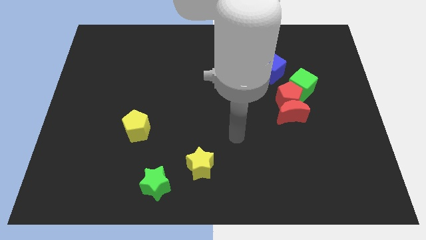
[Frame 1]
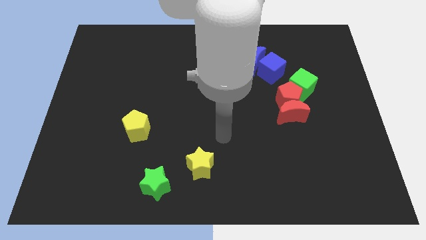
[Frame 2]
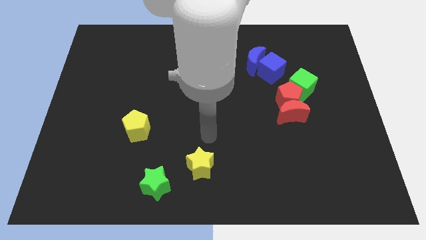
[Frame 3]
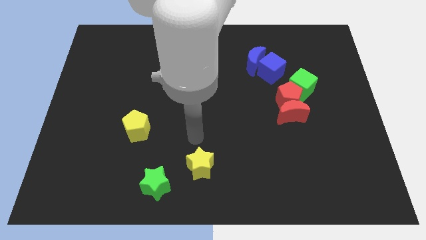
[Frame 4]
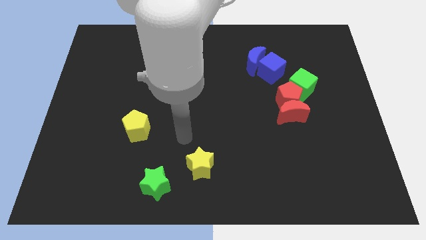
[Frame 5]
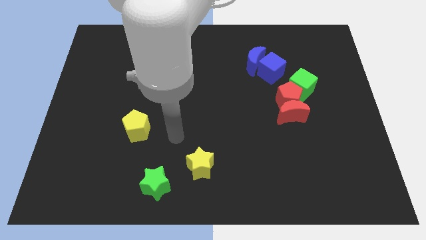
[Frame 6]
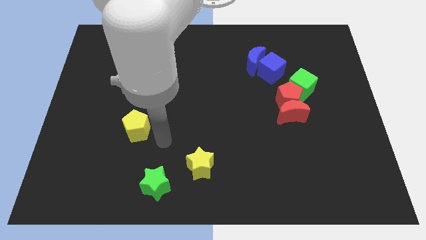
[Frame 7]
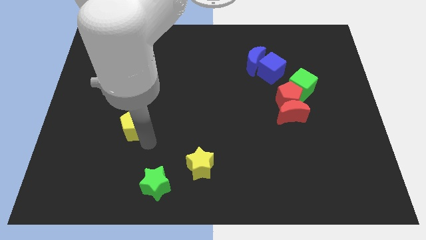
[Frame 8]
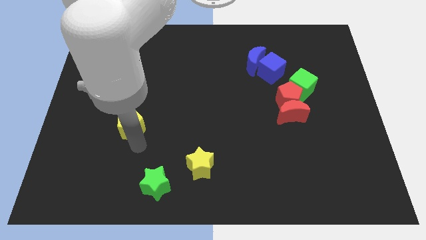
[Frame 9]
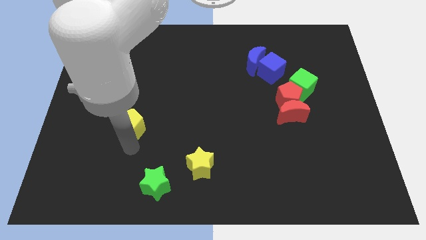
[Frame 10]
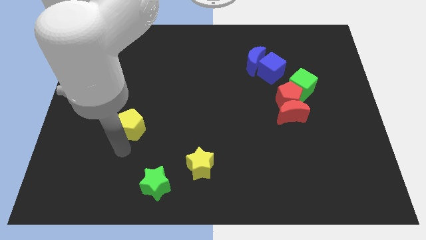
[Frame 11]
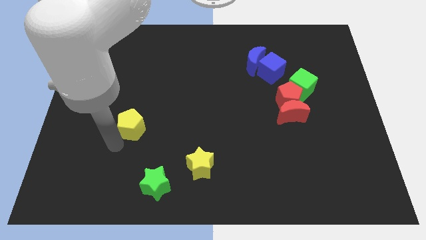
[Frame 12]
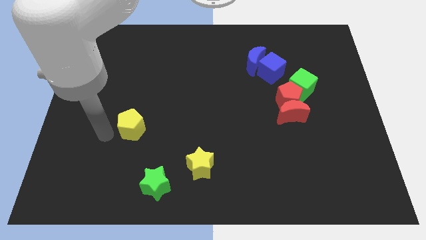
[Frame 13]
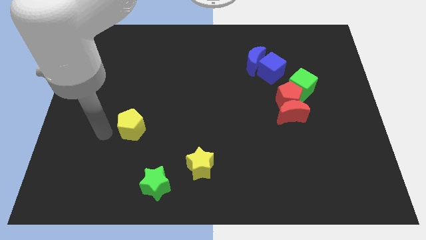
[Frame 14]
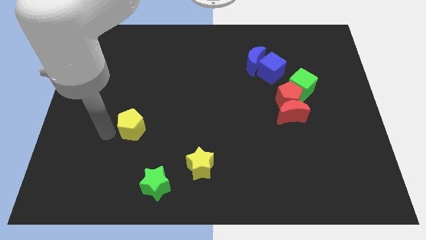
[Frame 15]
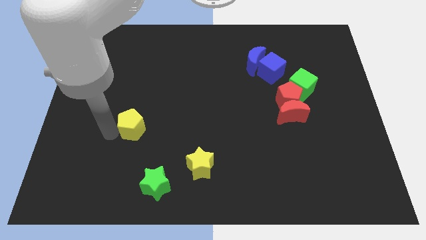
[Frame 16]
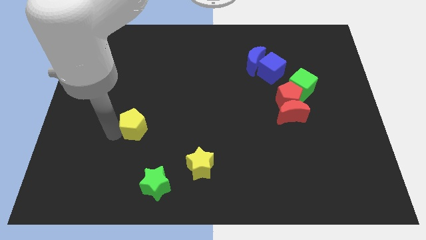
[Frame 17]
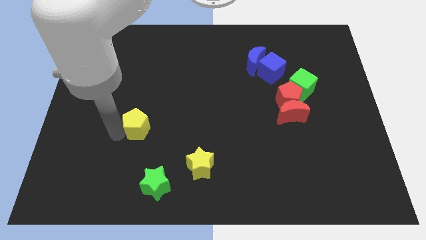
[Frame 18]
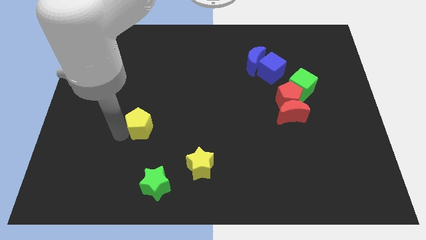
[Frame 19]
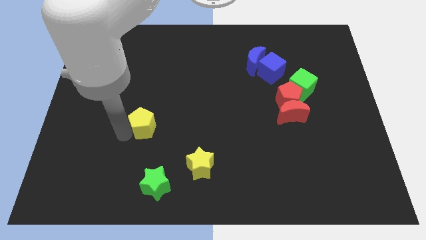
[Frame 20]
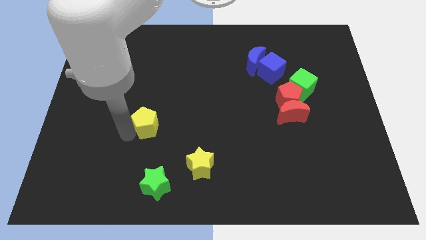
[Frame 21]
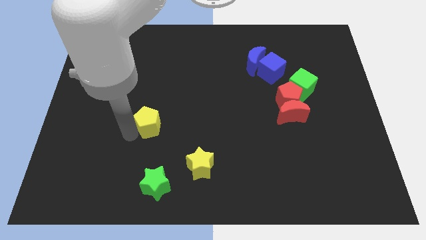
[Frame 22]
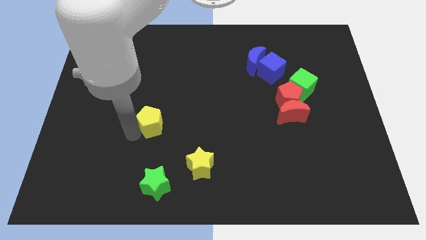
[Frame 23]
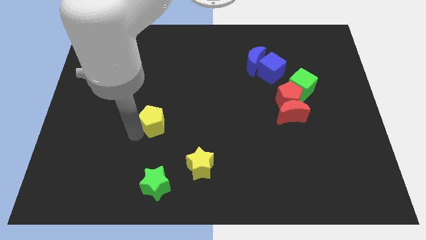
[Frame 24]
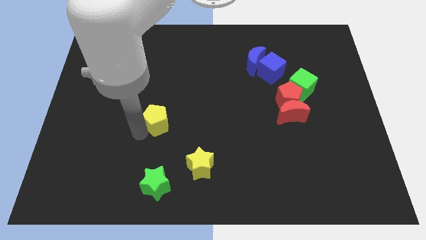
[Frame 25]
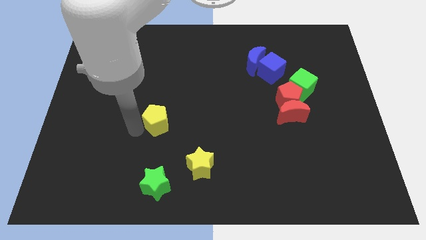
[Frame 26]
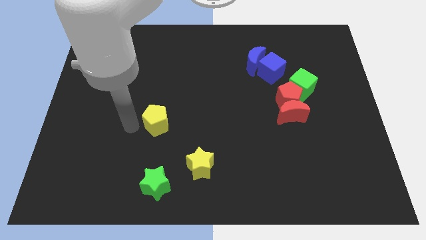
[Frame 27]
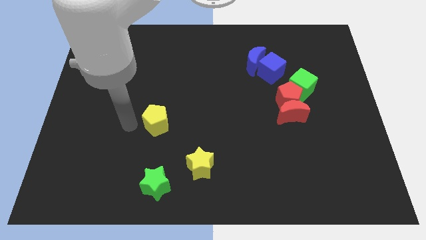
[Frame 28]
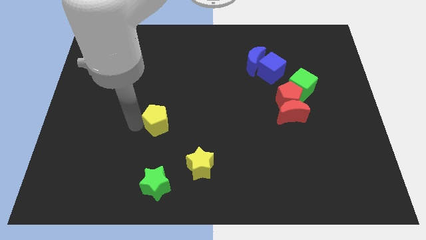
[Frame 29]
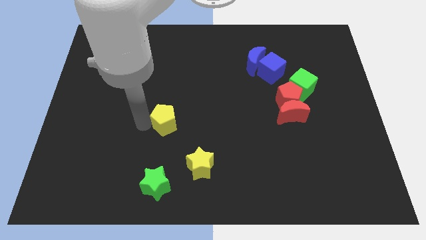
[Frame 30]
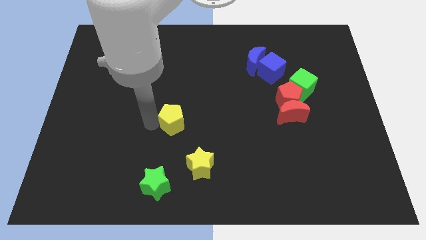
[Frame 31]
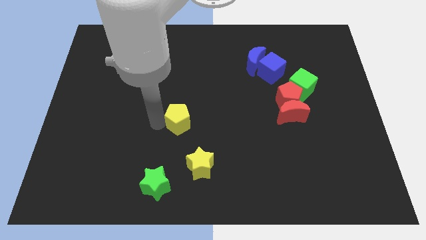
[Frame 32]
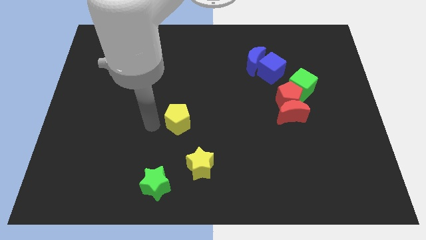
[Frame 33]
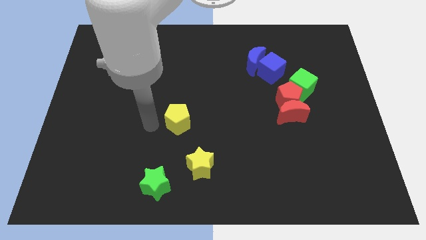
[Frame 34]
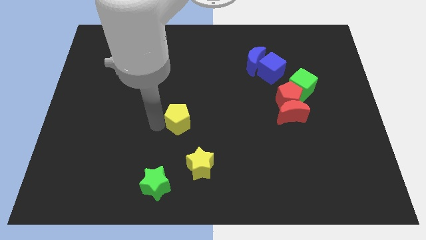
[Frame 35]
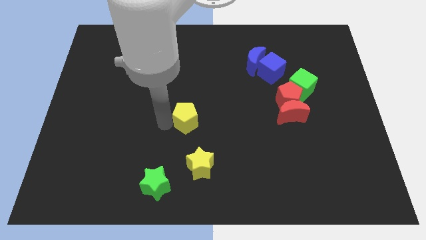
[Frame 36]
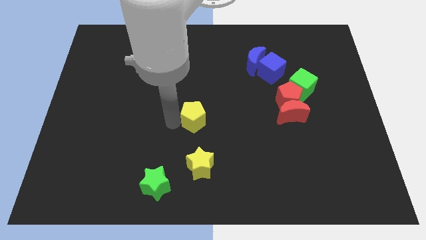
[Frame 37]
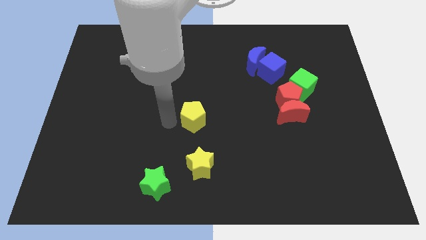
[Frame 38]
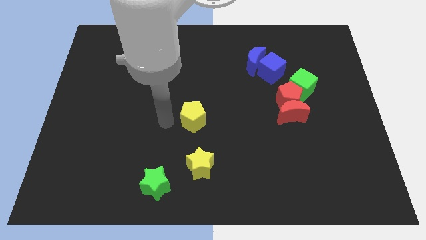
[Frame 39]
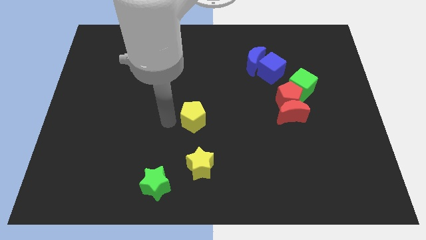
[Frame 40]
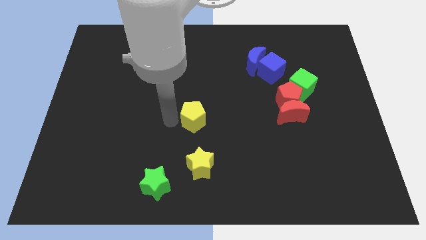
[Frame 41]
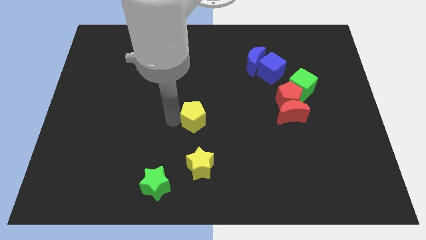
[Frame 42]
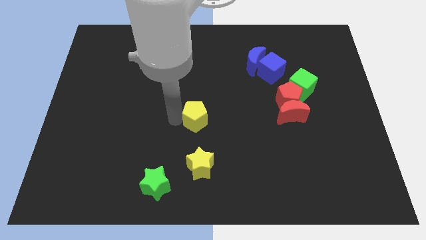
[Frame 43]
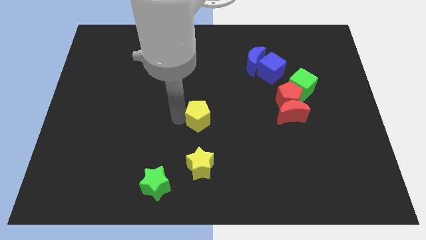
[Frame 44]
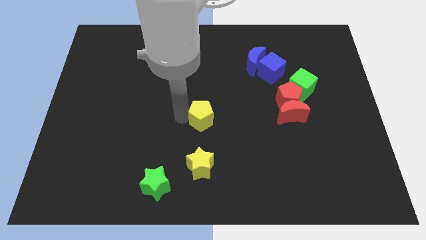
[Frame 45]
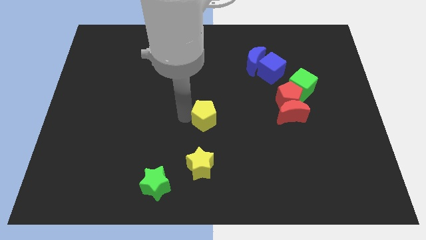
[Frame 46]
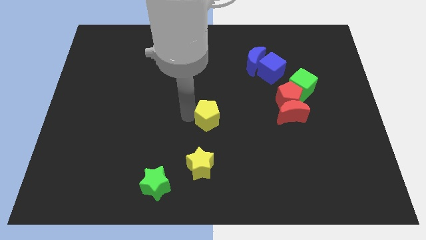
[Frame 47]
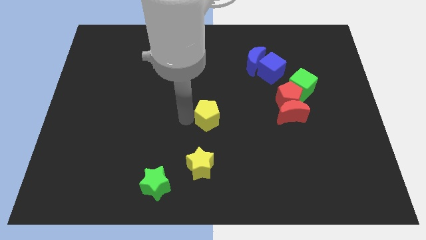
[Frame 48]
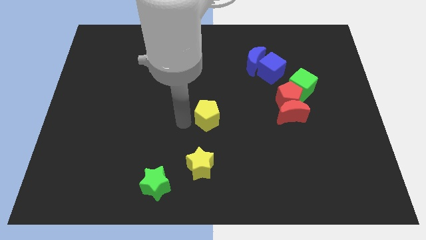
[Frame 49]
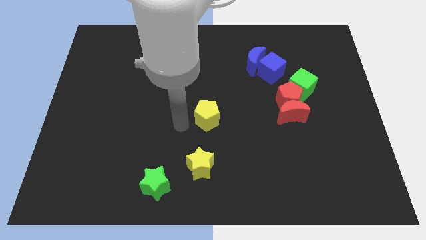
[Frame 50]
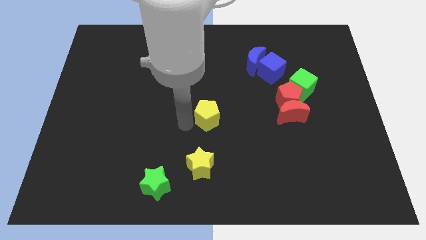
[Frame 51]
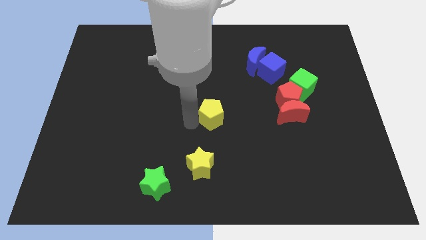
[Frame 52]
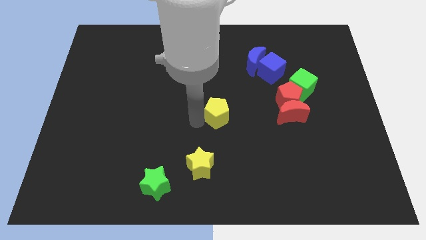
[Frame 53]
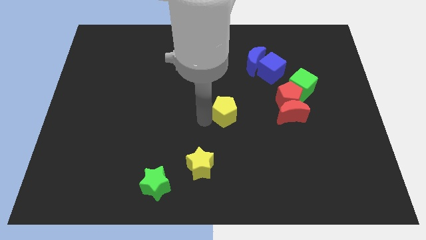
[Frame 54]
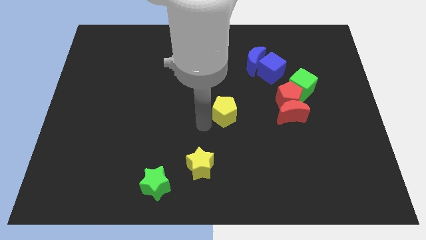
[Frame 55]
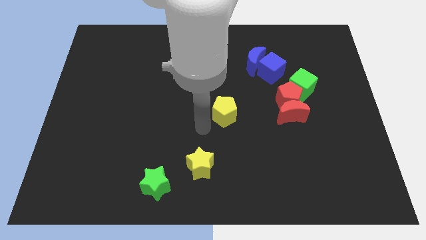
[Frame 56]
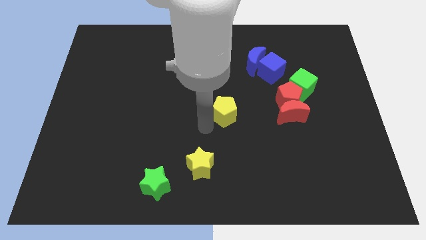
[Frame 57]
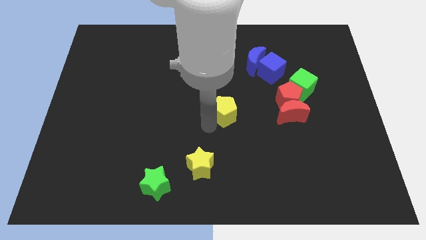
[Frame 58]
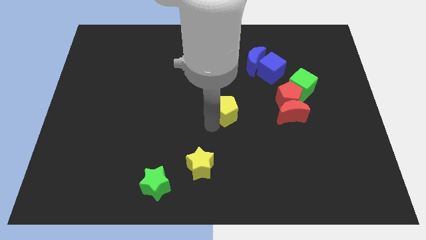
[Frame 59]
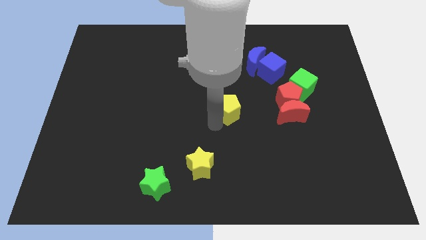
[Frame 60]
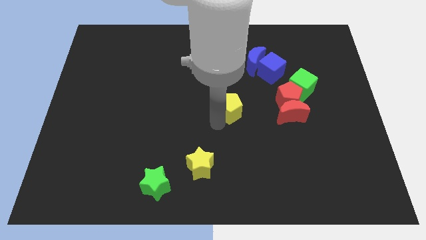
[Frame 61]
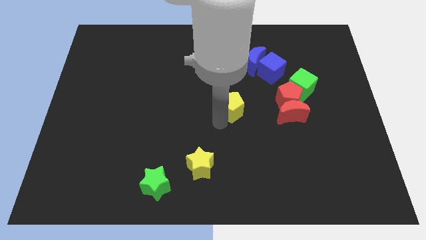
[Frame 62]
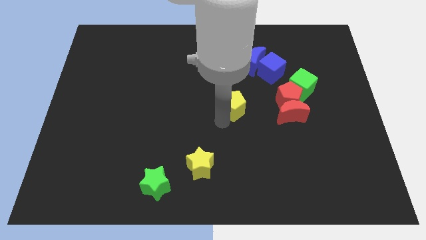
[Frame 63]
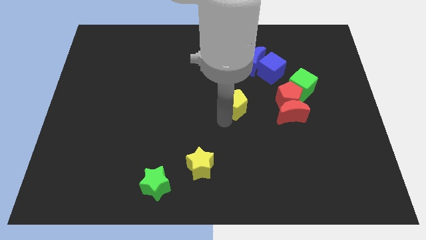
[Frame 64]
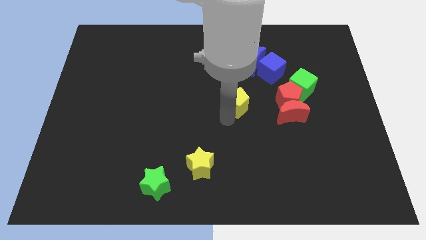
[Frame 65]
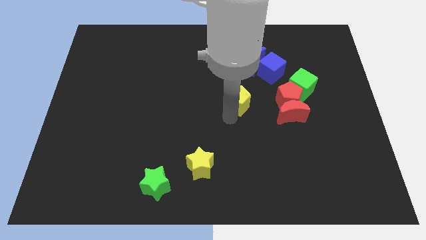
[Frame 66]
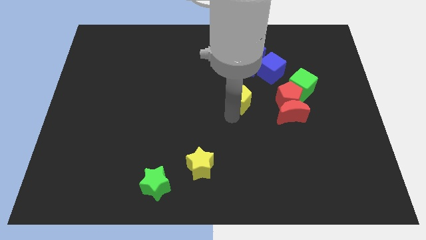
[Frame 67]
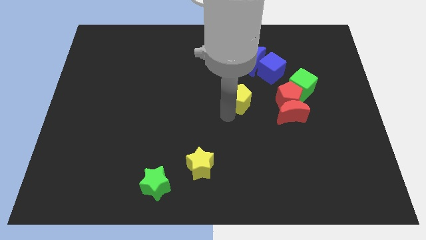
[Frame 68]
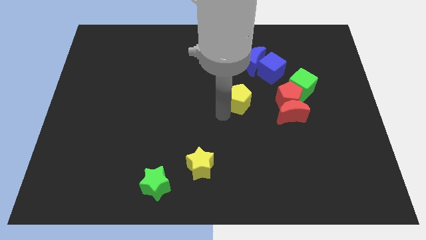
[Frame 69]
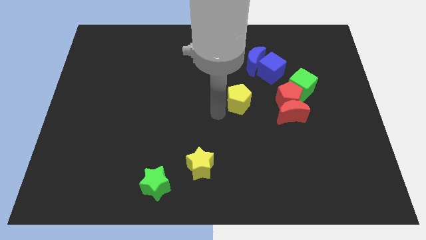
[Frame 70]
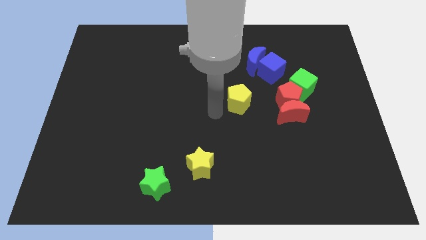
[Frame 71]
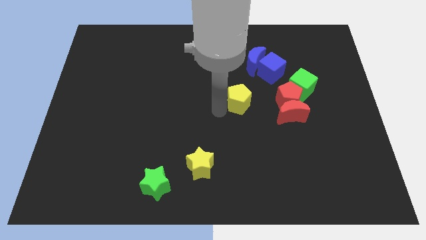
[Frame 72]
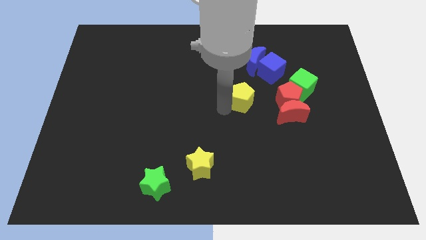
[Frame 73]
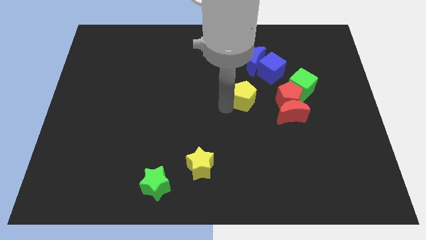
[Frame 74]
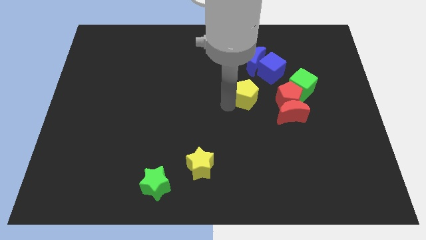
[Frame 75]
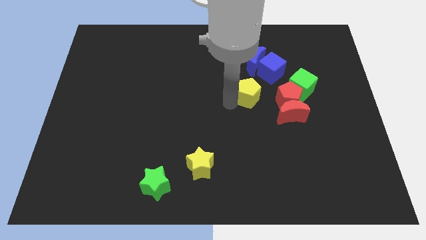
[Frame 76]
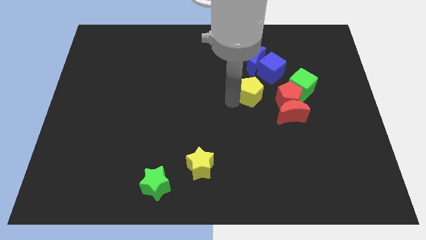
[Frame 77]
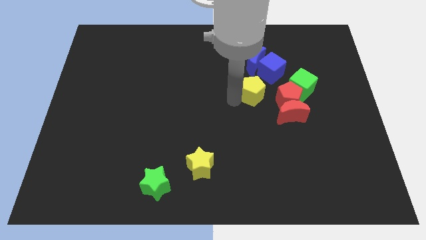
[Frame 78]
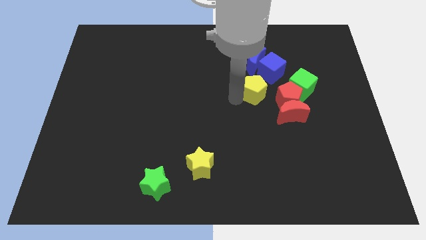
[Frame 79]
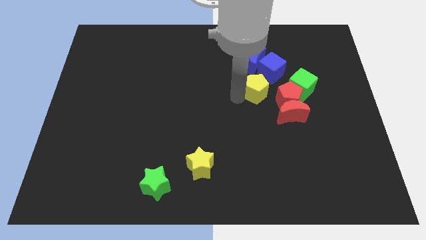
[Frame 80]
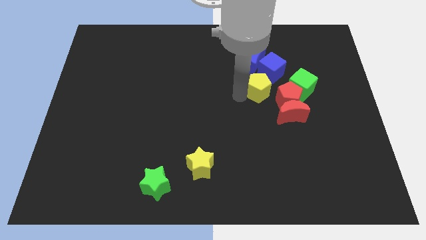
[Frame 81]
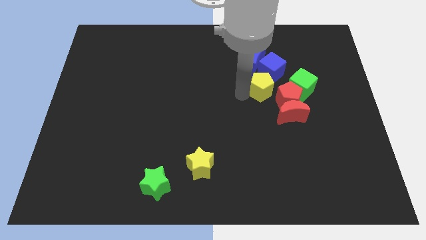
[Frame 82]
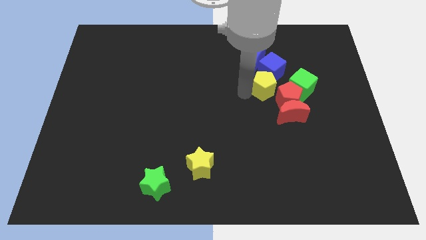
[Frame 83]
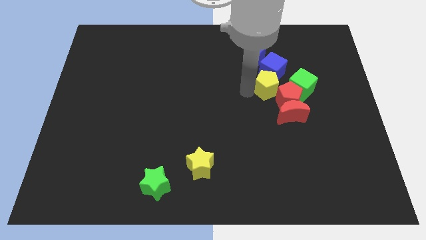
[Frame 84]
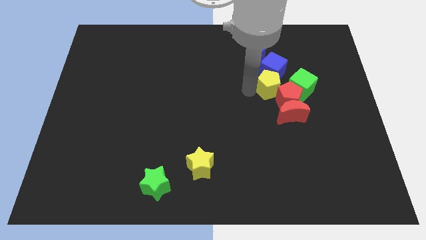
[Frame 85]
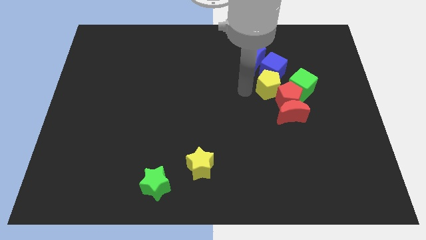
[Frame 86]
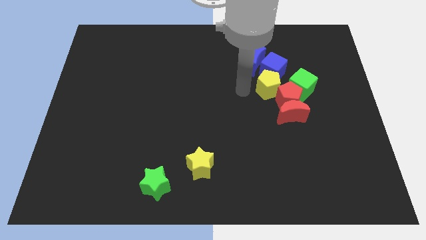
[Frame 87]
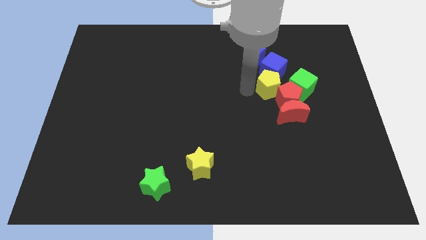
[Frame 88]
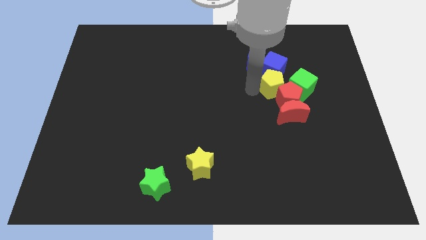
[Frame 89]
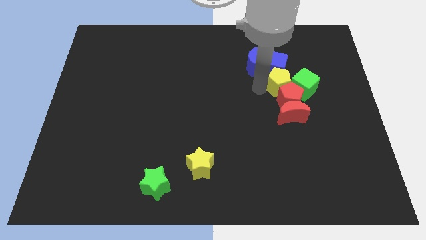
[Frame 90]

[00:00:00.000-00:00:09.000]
push the yellow pentagon towards the green cube
